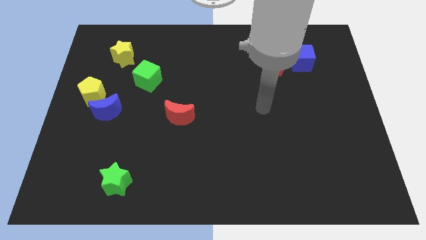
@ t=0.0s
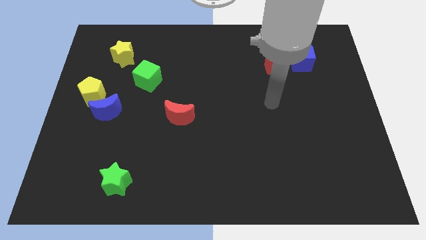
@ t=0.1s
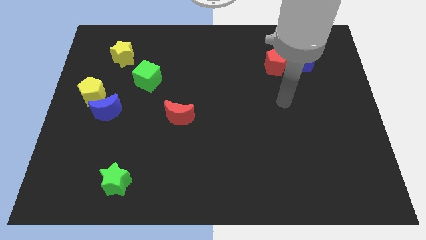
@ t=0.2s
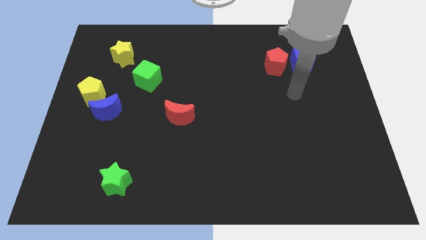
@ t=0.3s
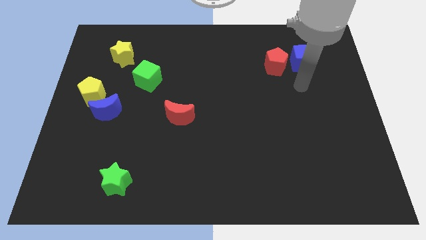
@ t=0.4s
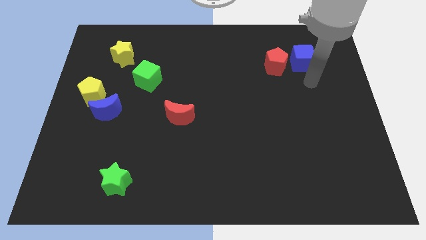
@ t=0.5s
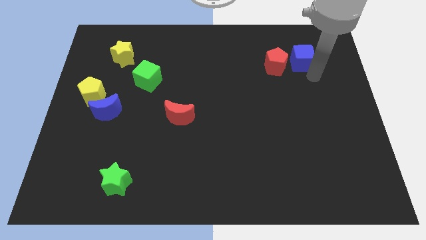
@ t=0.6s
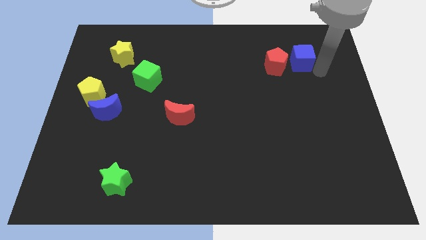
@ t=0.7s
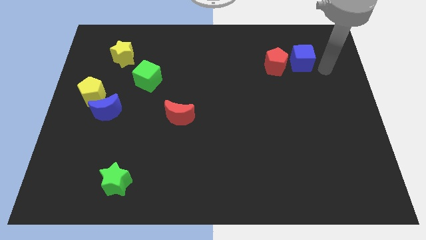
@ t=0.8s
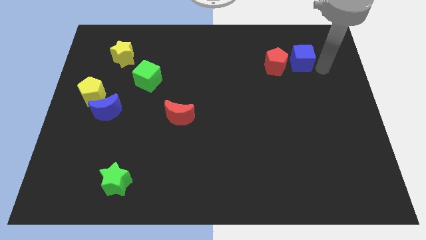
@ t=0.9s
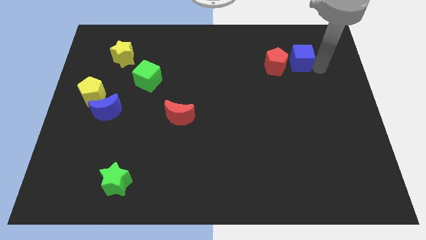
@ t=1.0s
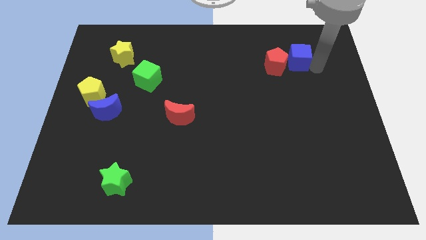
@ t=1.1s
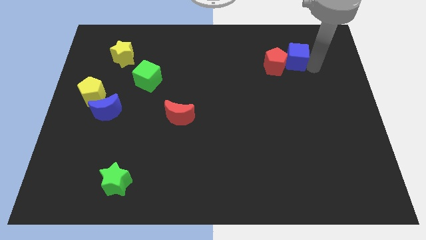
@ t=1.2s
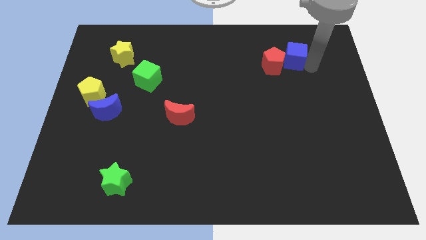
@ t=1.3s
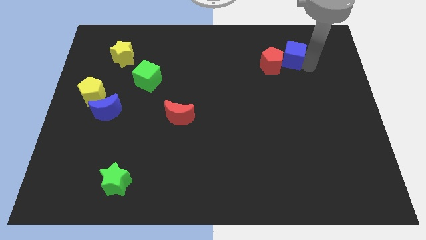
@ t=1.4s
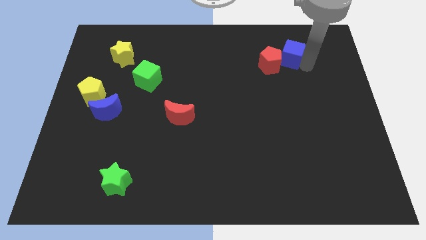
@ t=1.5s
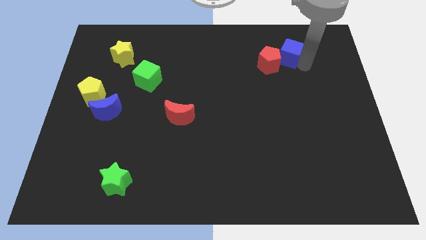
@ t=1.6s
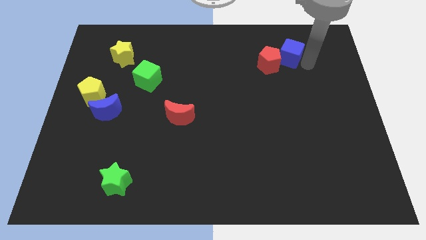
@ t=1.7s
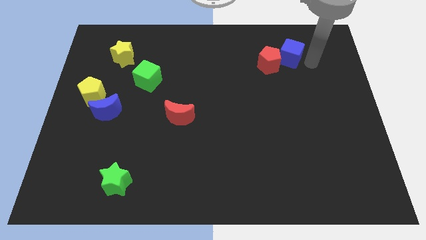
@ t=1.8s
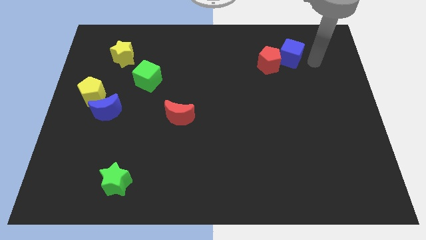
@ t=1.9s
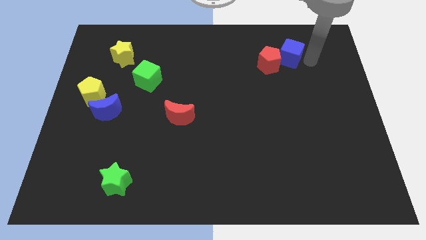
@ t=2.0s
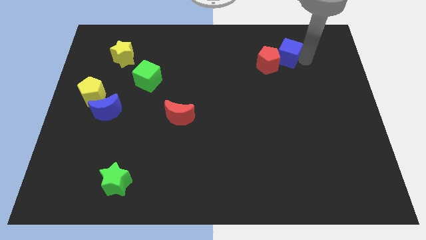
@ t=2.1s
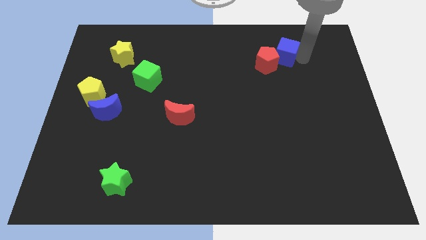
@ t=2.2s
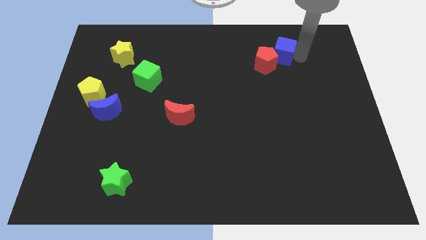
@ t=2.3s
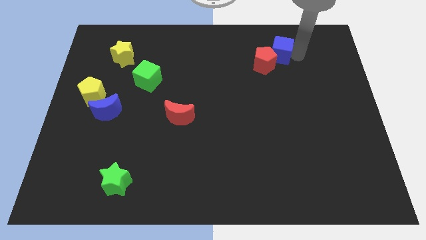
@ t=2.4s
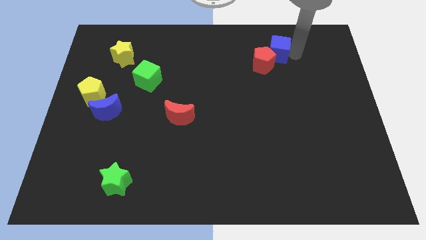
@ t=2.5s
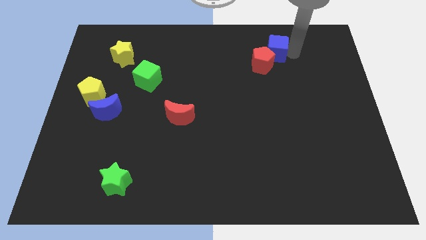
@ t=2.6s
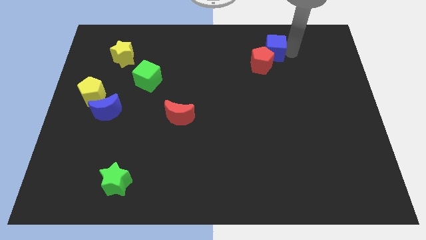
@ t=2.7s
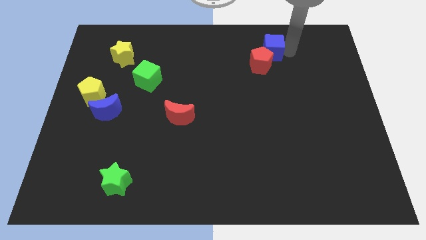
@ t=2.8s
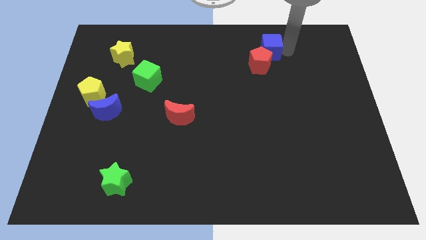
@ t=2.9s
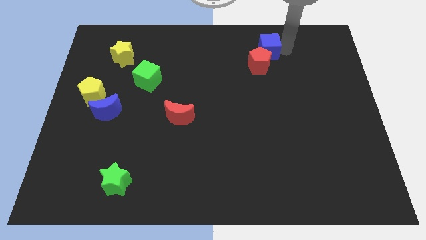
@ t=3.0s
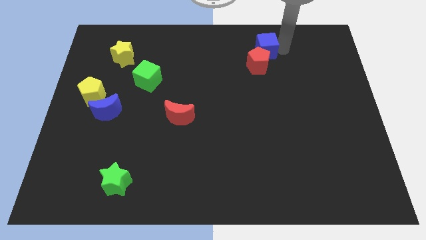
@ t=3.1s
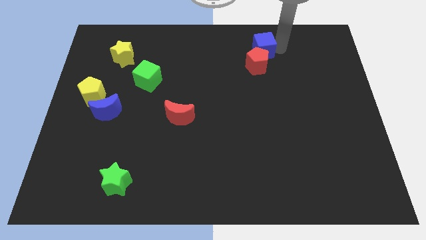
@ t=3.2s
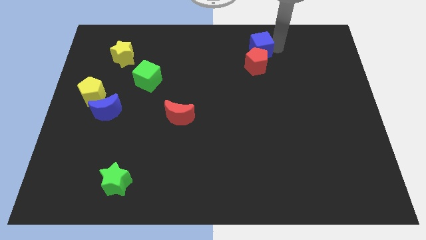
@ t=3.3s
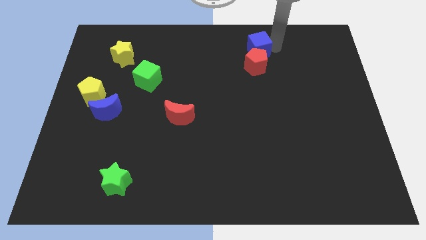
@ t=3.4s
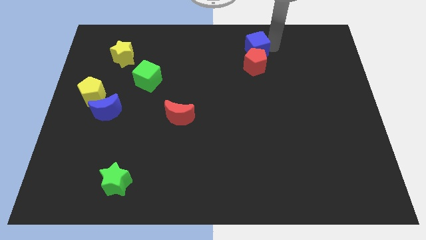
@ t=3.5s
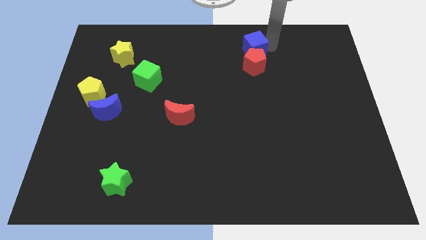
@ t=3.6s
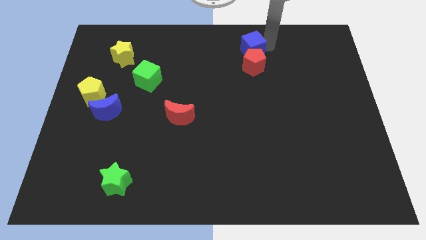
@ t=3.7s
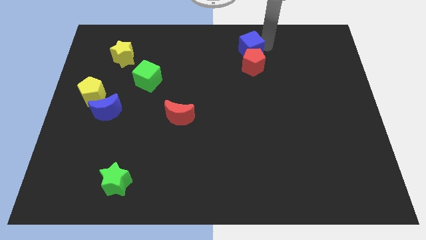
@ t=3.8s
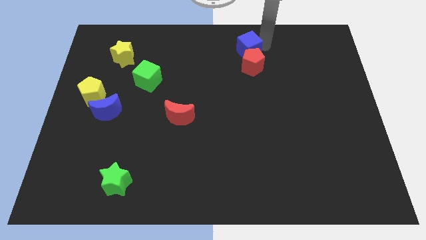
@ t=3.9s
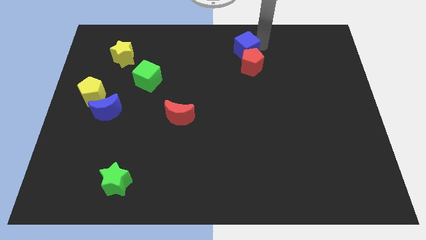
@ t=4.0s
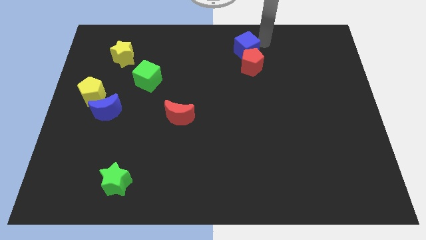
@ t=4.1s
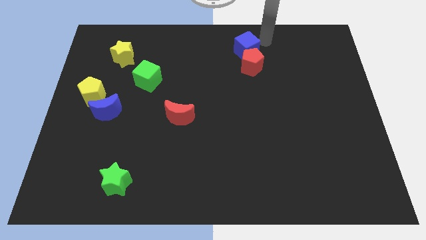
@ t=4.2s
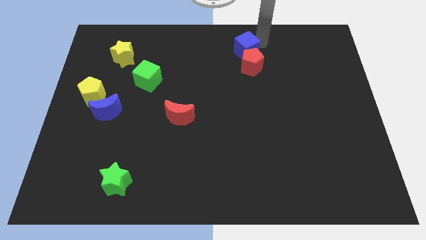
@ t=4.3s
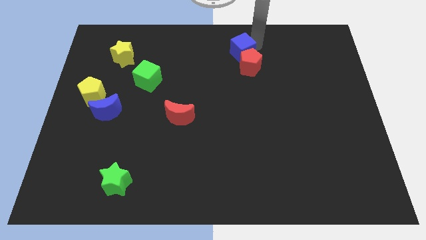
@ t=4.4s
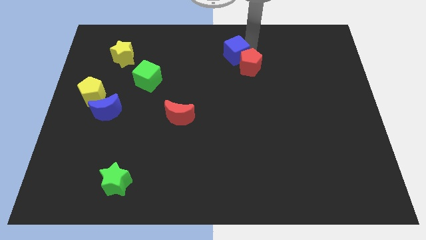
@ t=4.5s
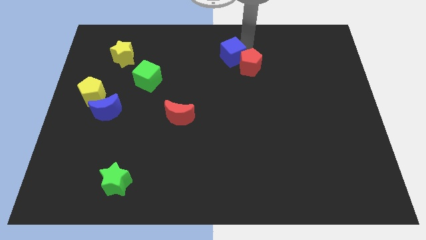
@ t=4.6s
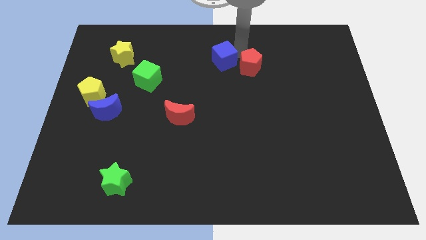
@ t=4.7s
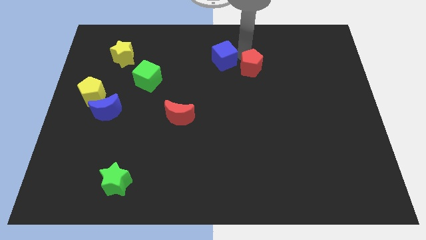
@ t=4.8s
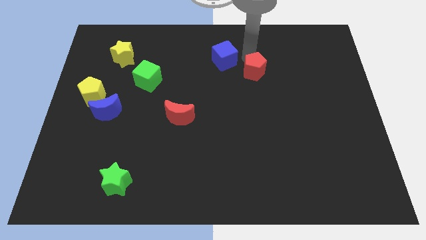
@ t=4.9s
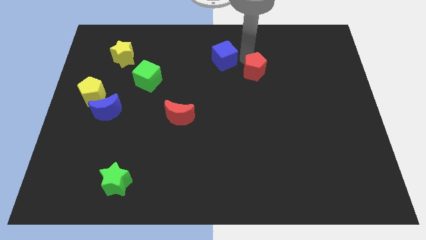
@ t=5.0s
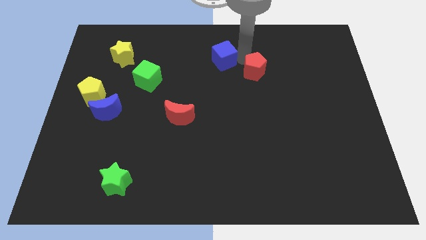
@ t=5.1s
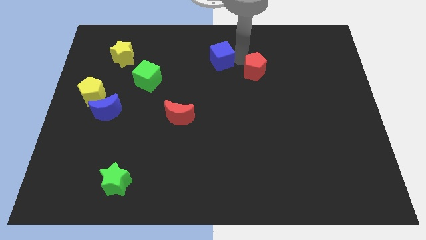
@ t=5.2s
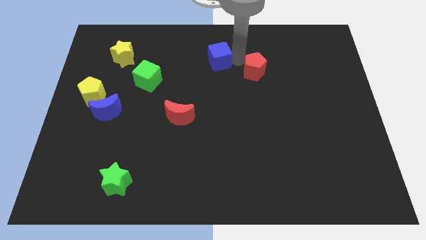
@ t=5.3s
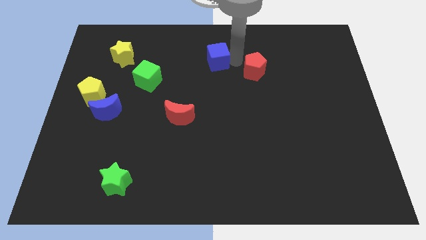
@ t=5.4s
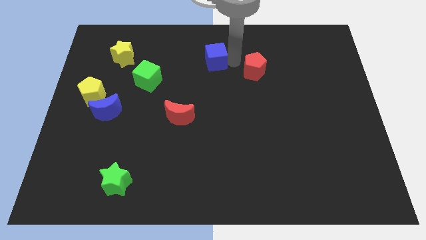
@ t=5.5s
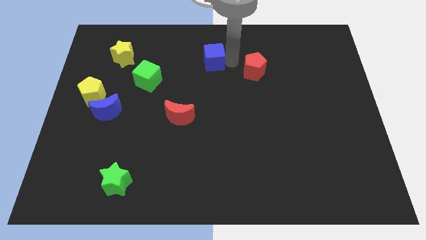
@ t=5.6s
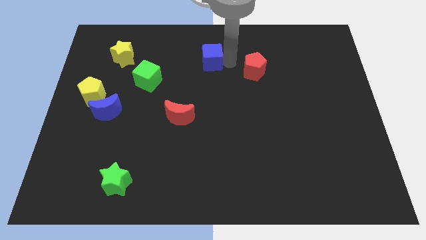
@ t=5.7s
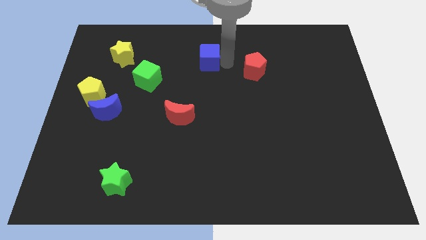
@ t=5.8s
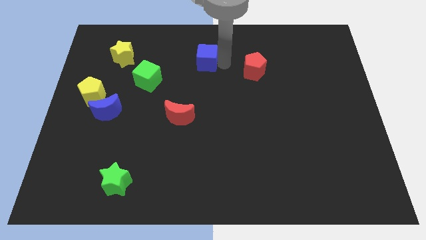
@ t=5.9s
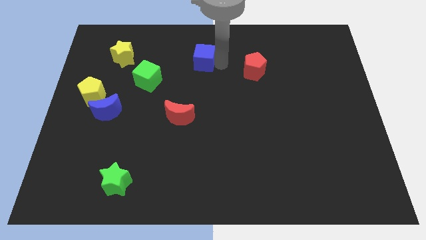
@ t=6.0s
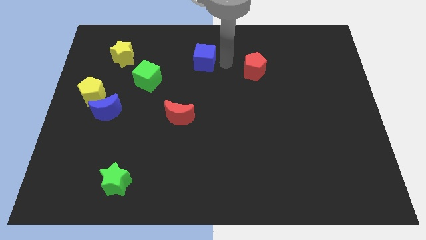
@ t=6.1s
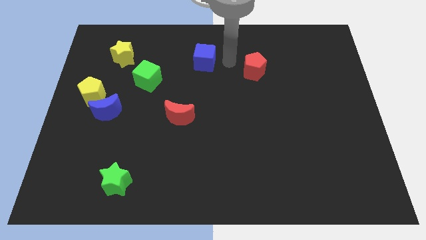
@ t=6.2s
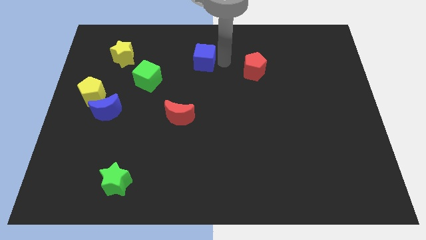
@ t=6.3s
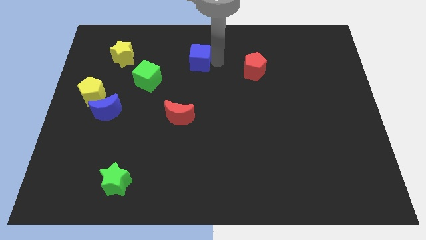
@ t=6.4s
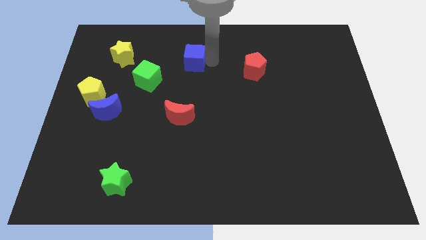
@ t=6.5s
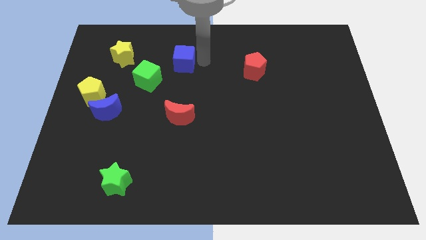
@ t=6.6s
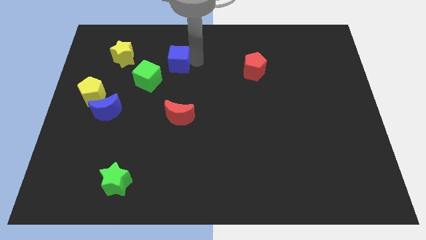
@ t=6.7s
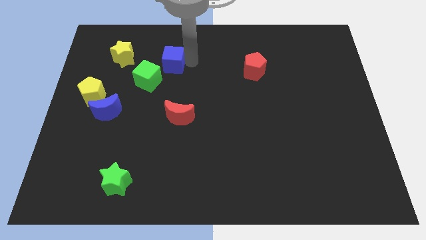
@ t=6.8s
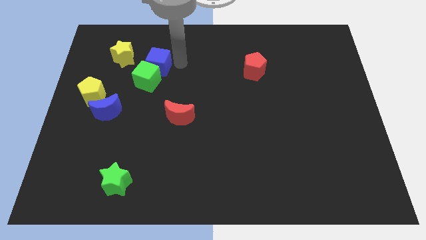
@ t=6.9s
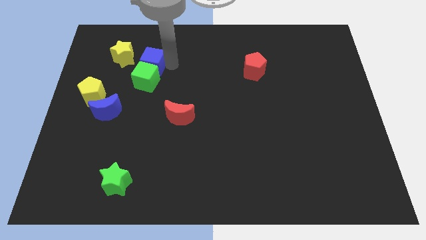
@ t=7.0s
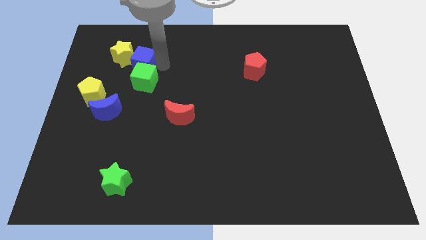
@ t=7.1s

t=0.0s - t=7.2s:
move the blue cube towards the yellow star
